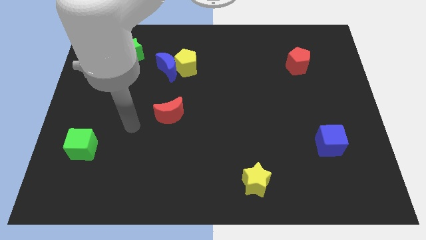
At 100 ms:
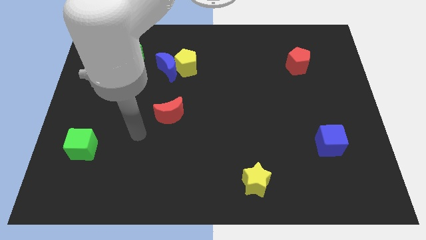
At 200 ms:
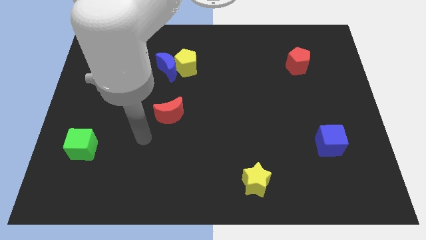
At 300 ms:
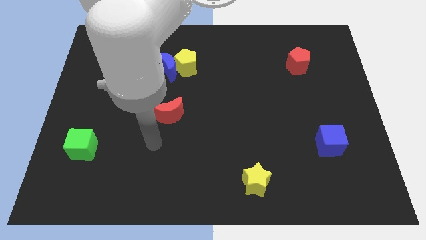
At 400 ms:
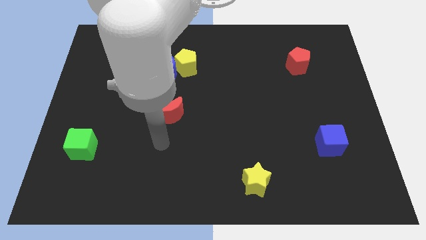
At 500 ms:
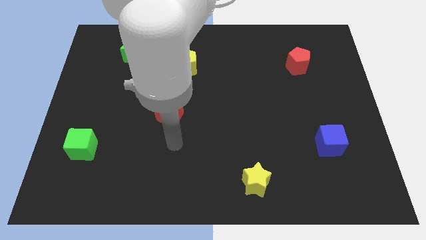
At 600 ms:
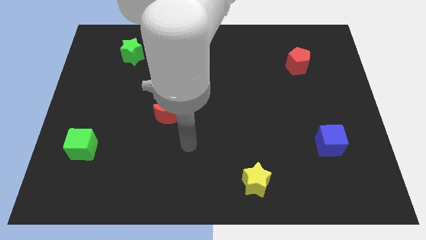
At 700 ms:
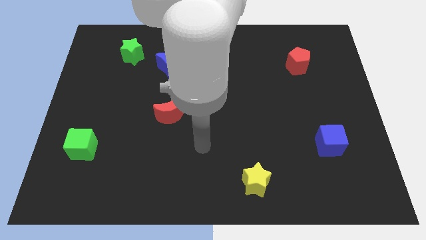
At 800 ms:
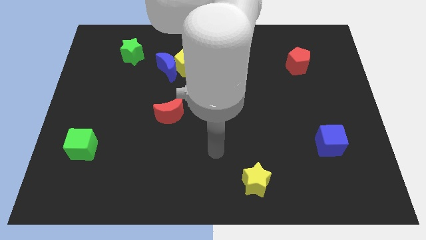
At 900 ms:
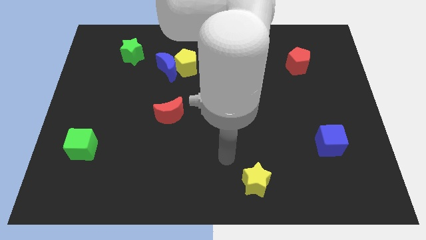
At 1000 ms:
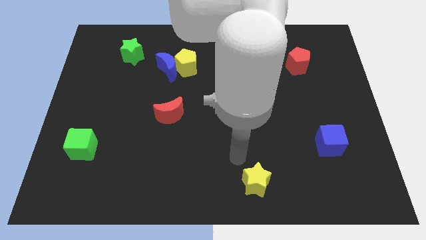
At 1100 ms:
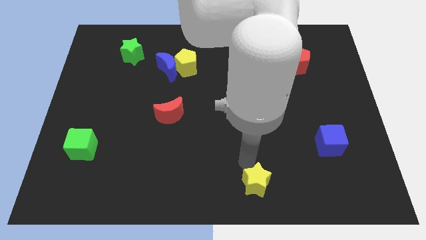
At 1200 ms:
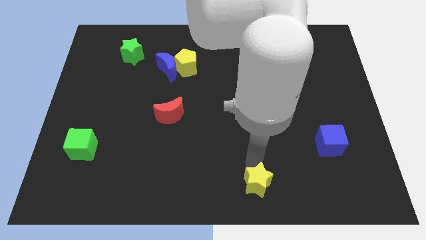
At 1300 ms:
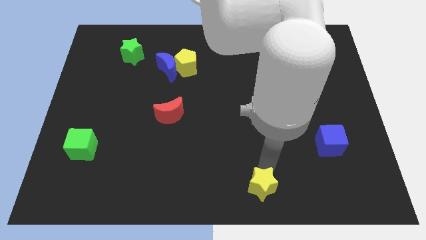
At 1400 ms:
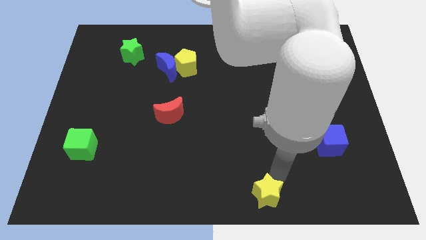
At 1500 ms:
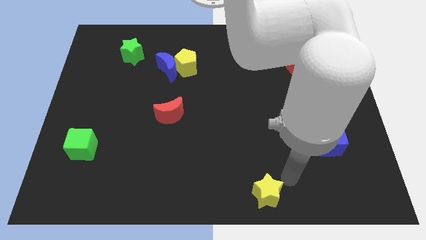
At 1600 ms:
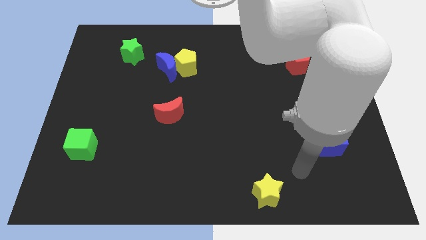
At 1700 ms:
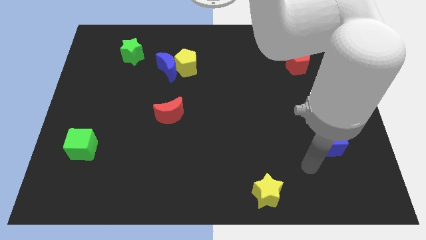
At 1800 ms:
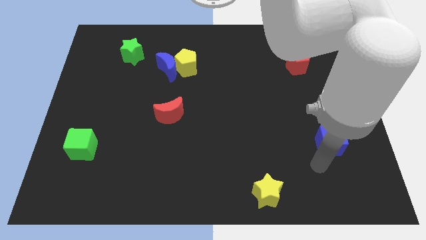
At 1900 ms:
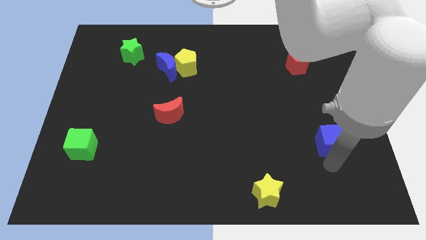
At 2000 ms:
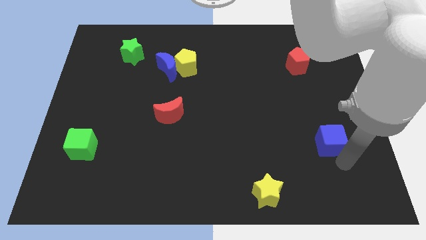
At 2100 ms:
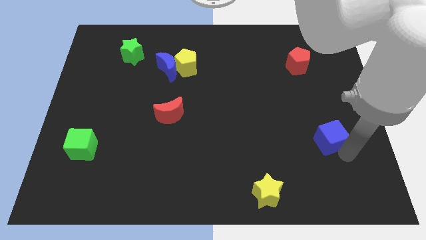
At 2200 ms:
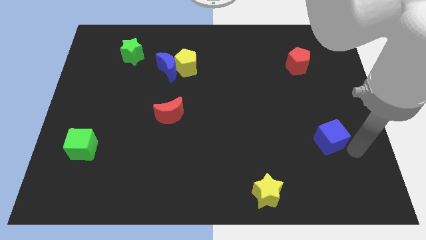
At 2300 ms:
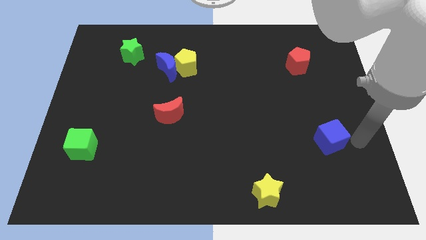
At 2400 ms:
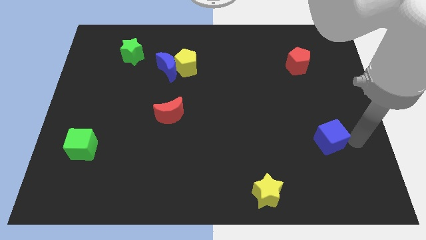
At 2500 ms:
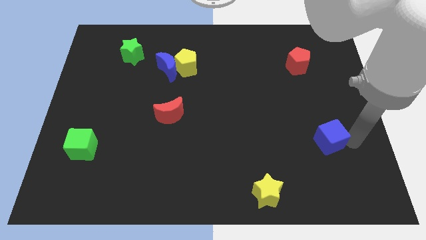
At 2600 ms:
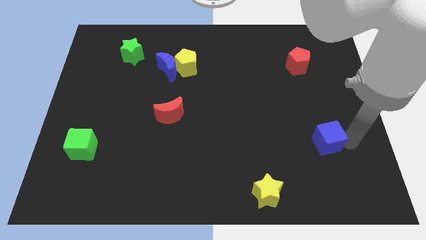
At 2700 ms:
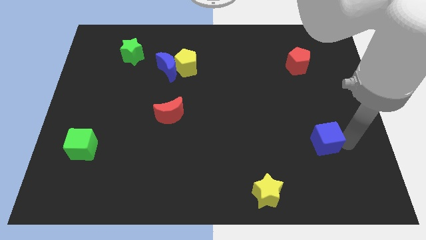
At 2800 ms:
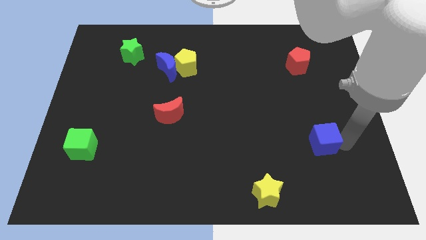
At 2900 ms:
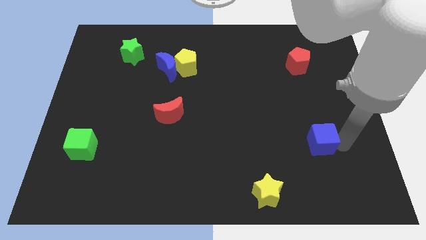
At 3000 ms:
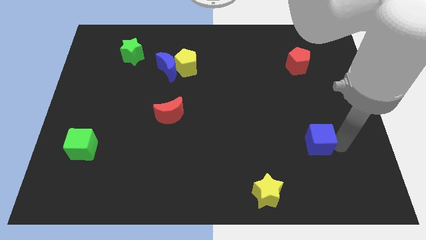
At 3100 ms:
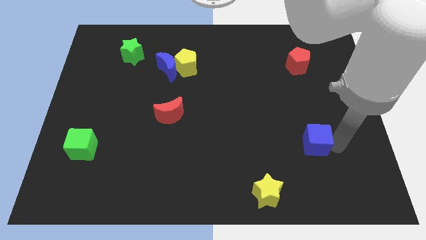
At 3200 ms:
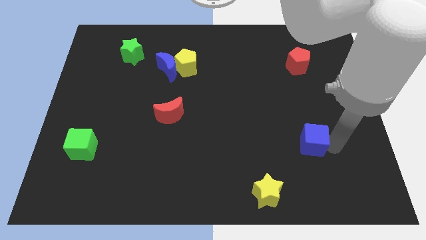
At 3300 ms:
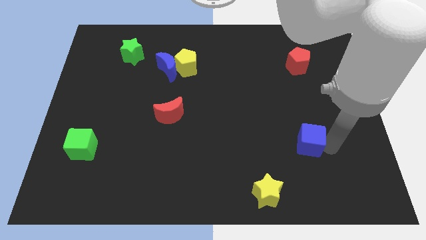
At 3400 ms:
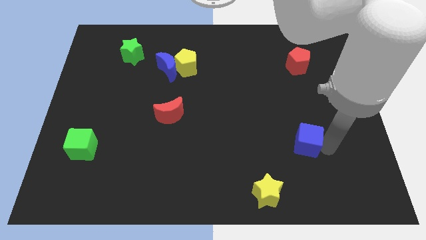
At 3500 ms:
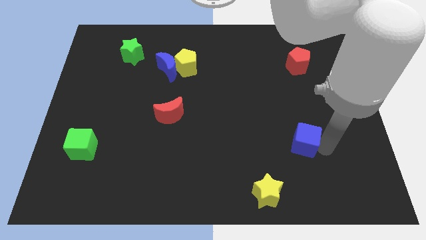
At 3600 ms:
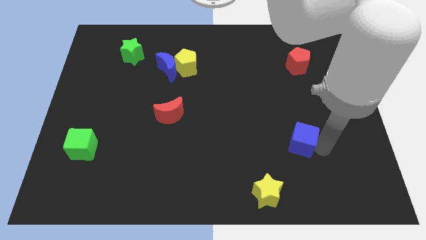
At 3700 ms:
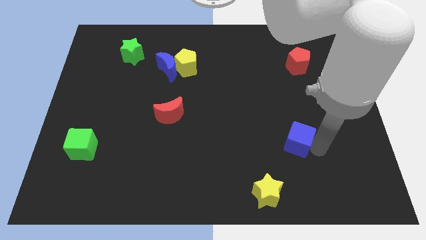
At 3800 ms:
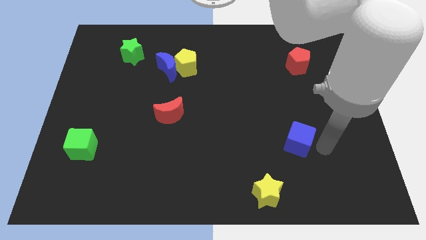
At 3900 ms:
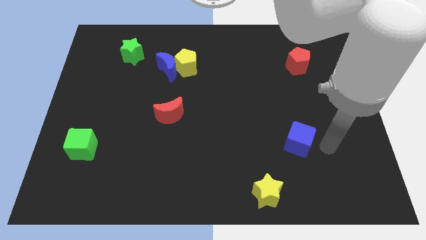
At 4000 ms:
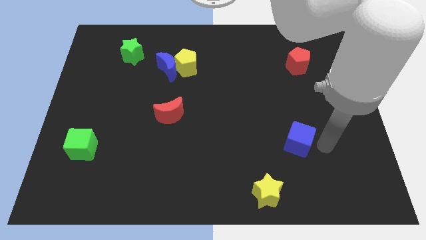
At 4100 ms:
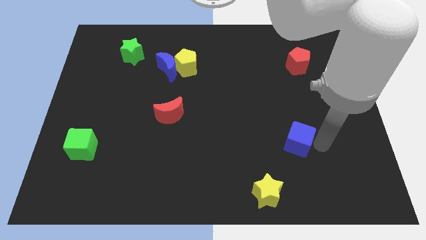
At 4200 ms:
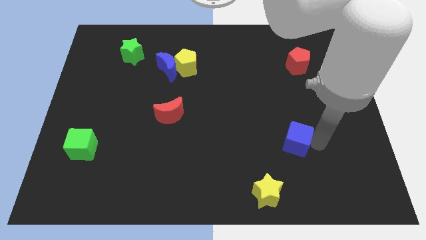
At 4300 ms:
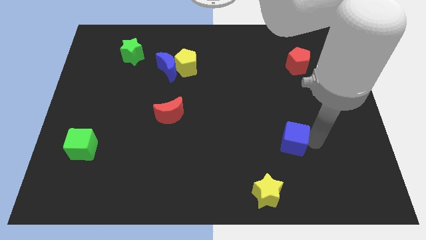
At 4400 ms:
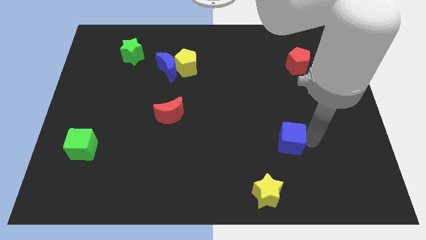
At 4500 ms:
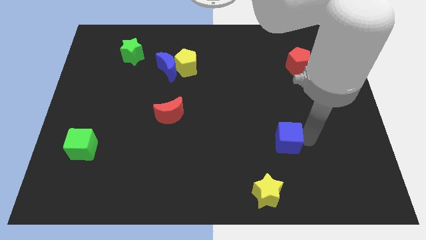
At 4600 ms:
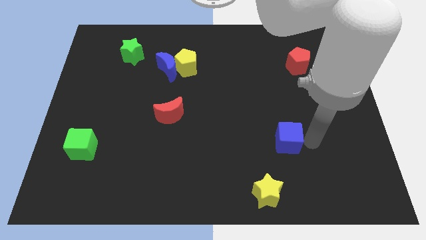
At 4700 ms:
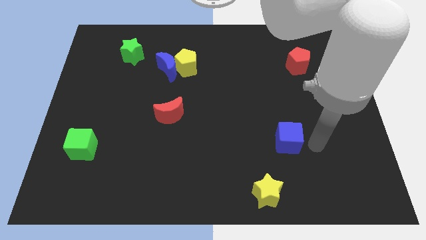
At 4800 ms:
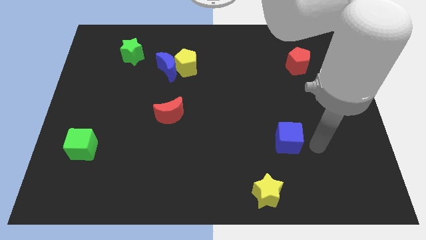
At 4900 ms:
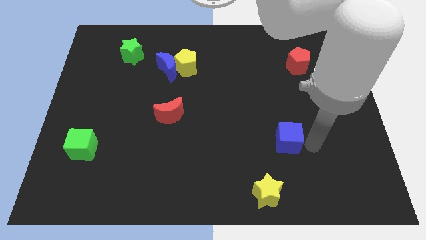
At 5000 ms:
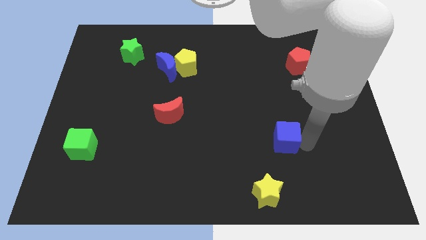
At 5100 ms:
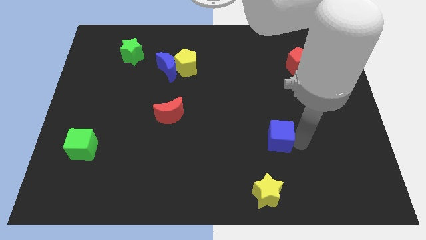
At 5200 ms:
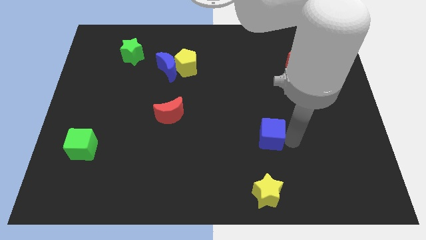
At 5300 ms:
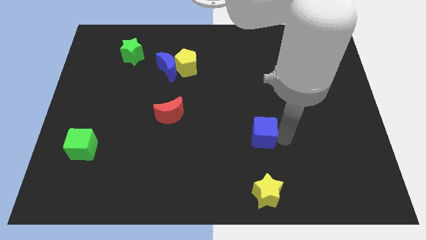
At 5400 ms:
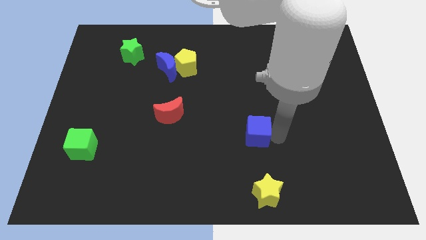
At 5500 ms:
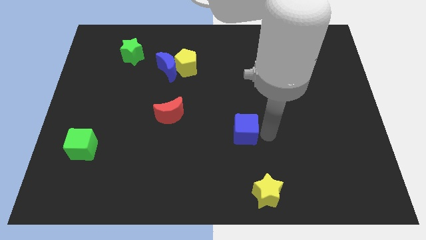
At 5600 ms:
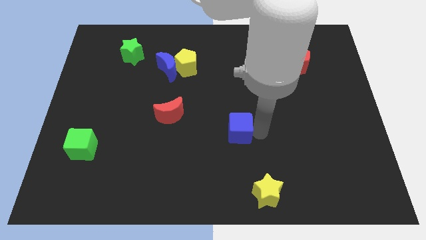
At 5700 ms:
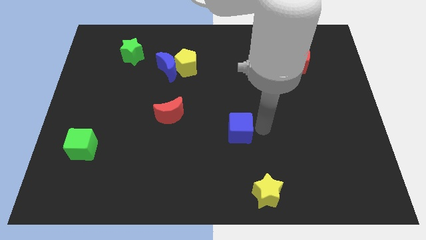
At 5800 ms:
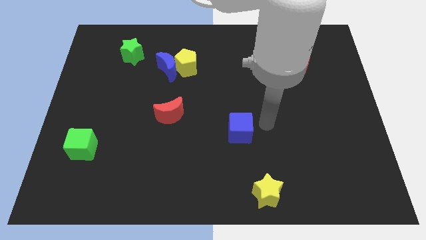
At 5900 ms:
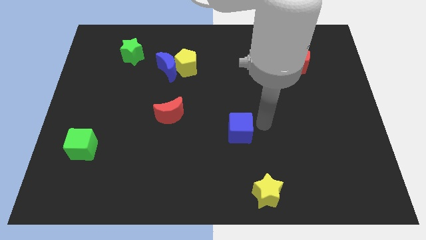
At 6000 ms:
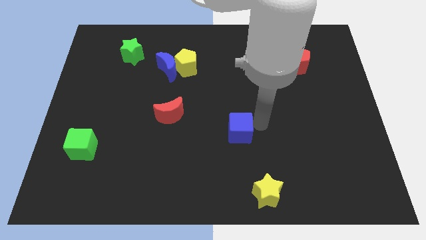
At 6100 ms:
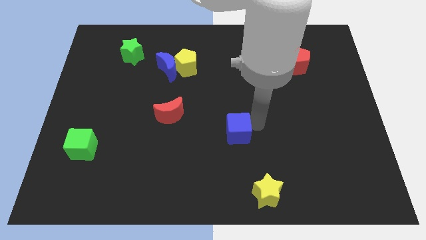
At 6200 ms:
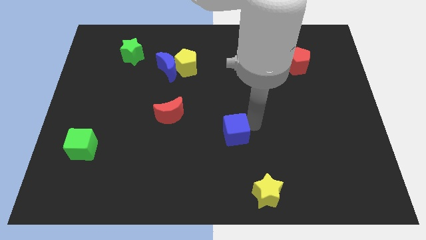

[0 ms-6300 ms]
push the blue cube left

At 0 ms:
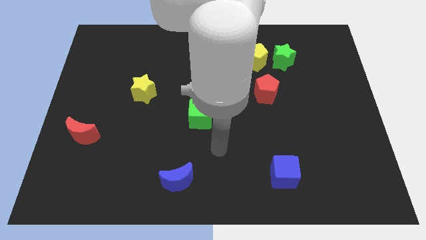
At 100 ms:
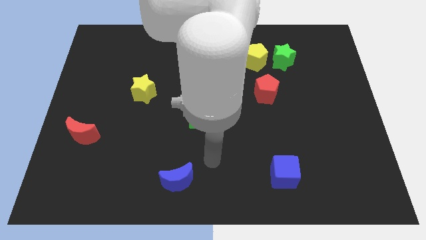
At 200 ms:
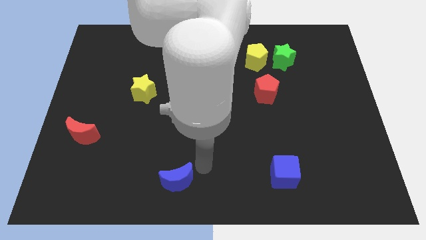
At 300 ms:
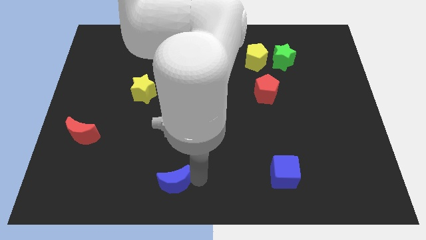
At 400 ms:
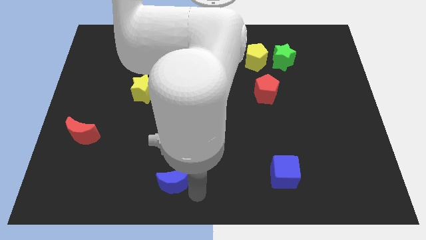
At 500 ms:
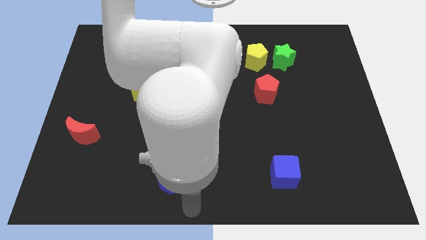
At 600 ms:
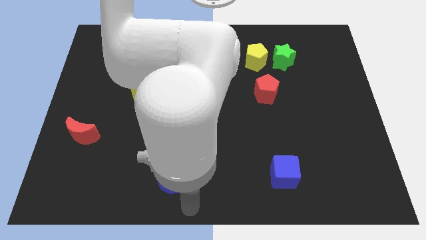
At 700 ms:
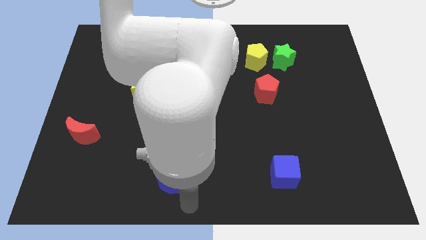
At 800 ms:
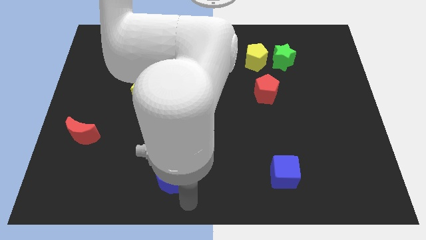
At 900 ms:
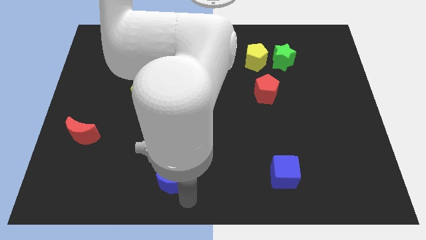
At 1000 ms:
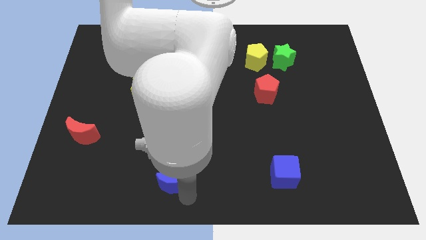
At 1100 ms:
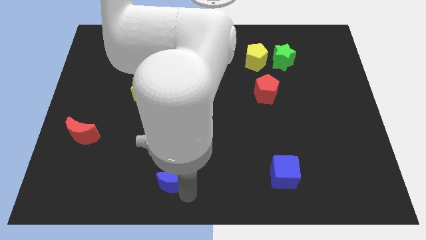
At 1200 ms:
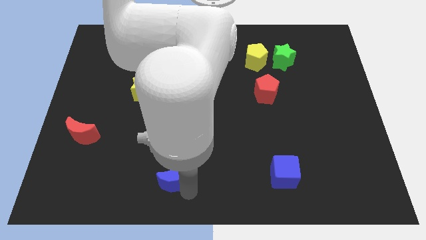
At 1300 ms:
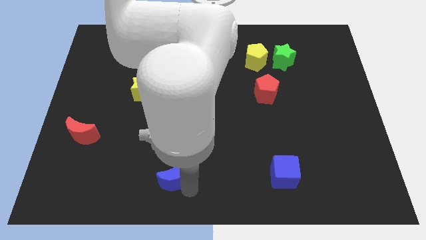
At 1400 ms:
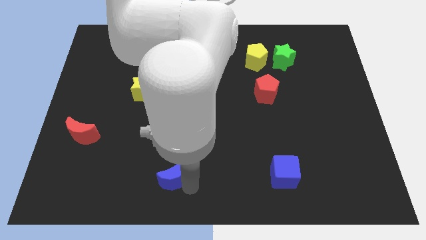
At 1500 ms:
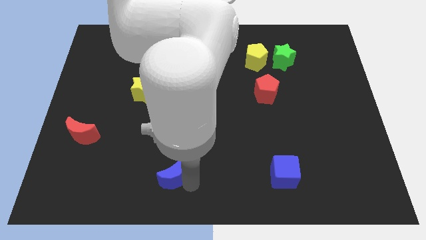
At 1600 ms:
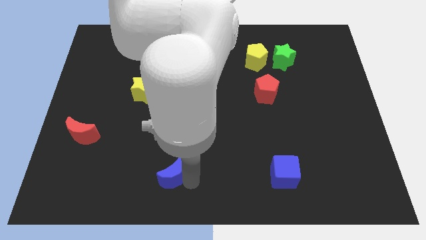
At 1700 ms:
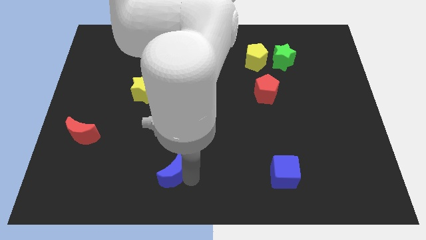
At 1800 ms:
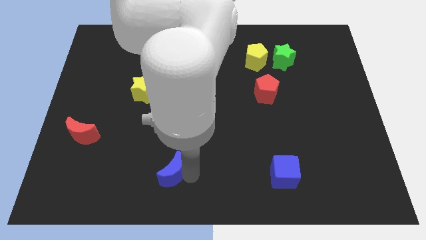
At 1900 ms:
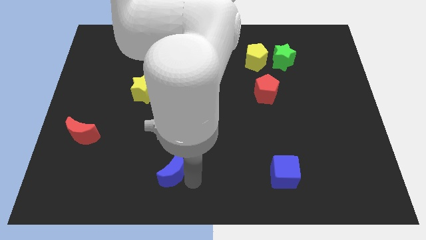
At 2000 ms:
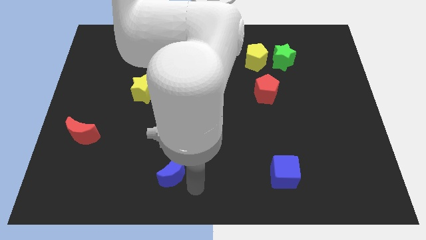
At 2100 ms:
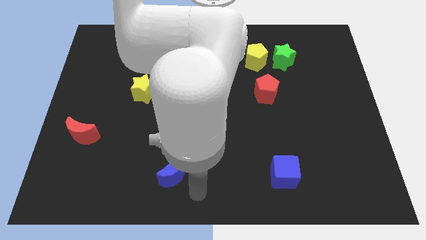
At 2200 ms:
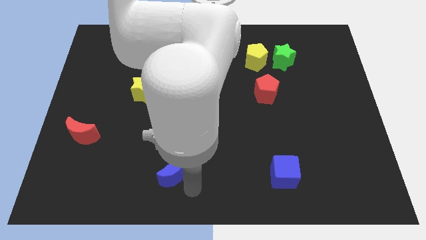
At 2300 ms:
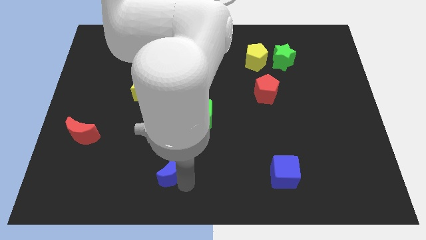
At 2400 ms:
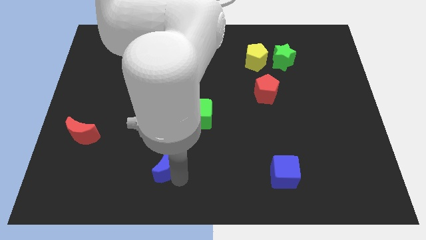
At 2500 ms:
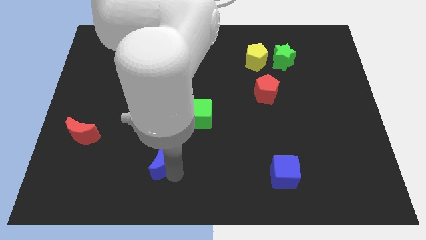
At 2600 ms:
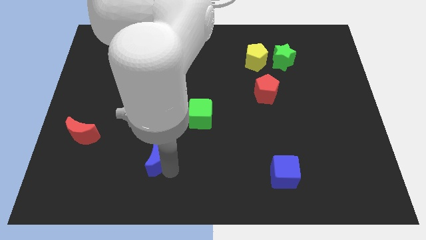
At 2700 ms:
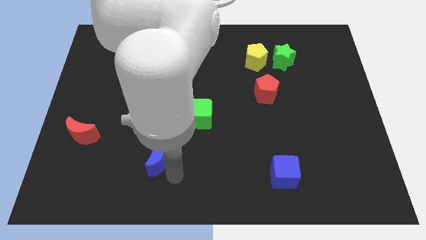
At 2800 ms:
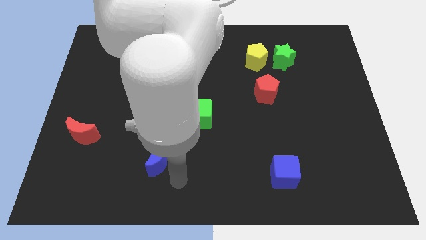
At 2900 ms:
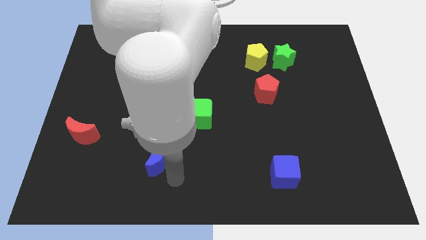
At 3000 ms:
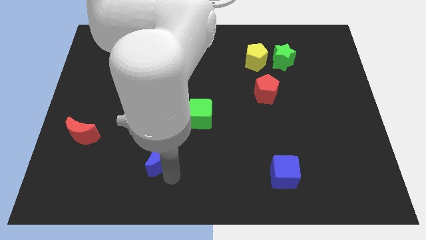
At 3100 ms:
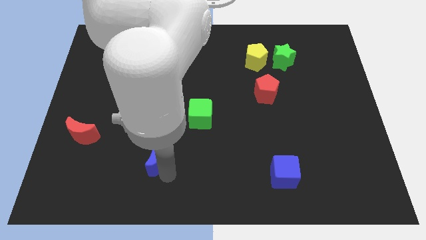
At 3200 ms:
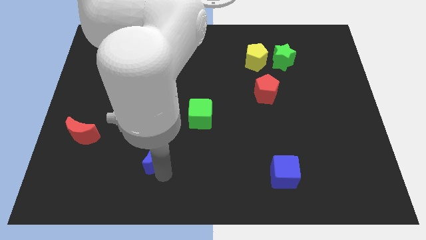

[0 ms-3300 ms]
slide the blue moon a little up and then to the left
